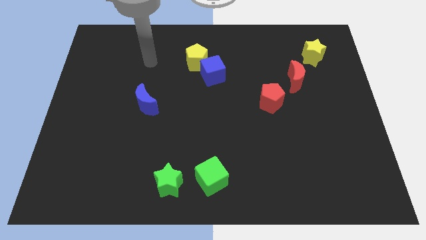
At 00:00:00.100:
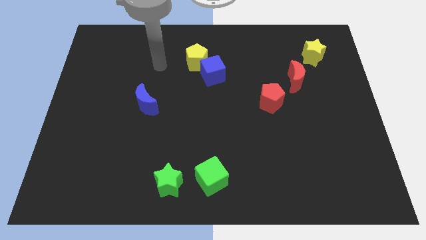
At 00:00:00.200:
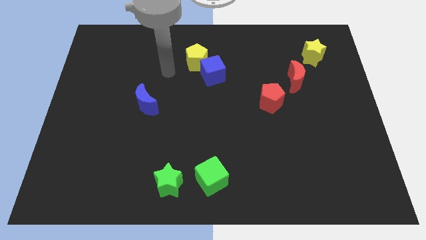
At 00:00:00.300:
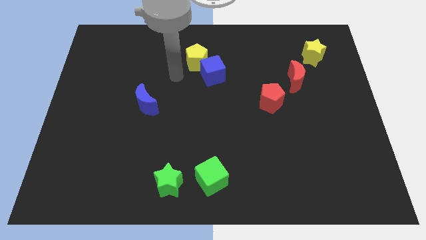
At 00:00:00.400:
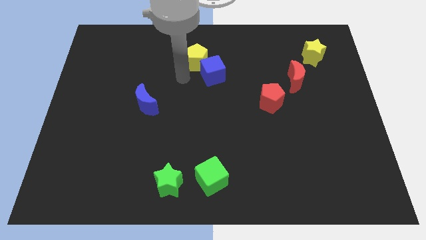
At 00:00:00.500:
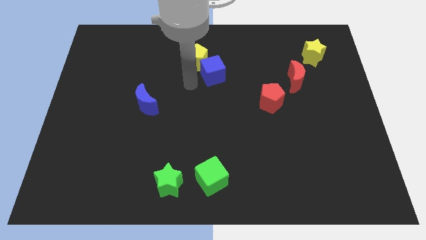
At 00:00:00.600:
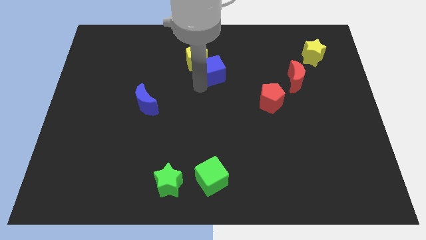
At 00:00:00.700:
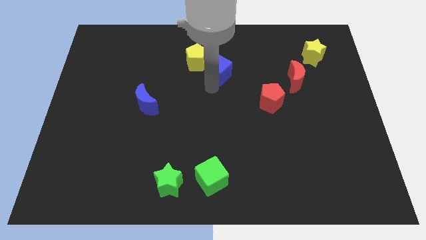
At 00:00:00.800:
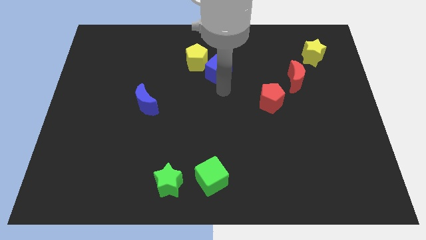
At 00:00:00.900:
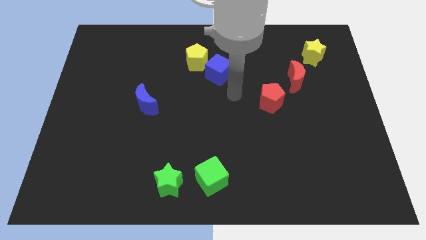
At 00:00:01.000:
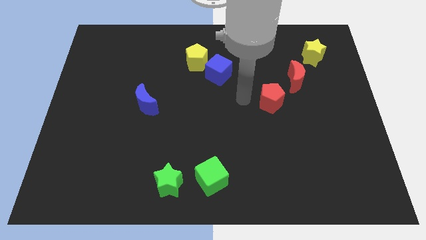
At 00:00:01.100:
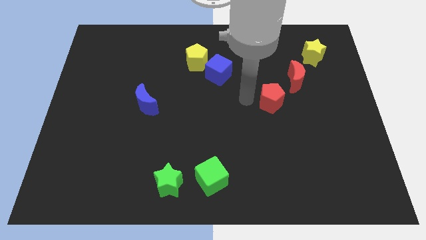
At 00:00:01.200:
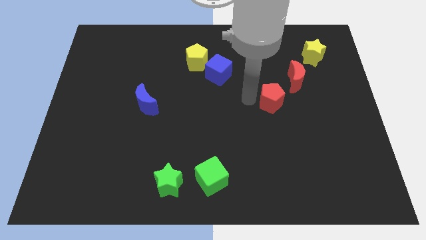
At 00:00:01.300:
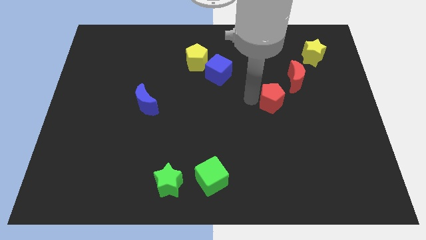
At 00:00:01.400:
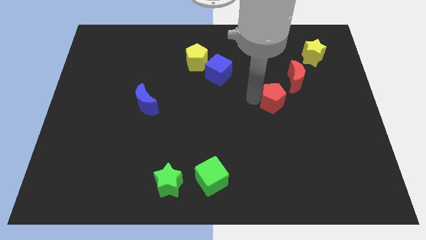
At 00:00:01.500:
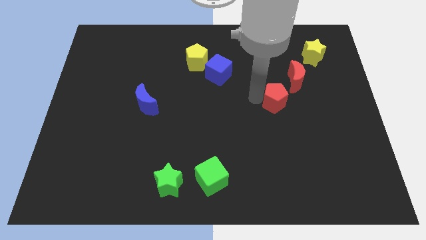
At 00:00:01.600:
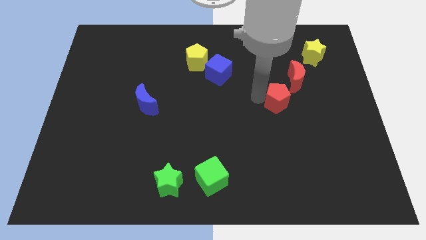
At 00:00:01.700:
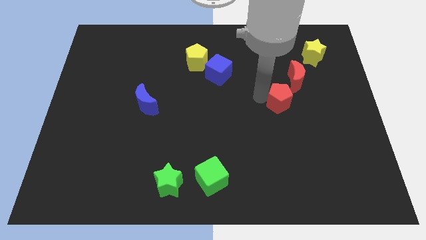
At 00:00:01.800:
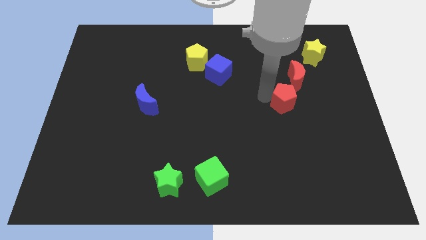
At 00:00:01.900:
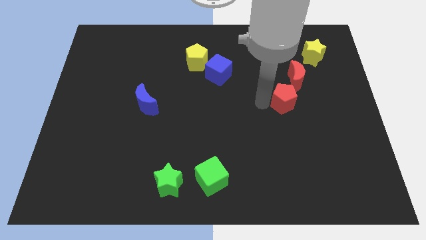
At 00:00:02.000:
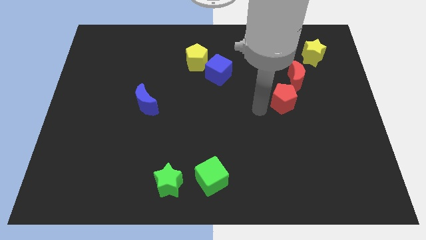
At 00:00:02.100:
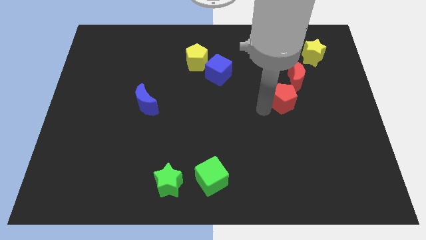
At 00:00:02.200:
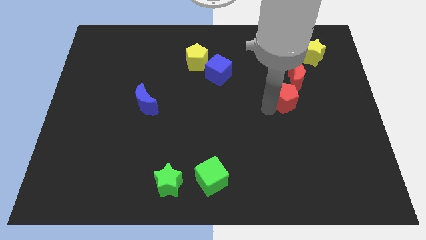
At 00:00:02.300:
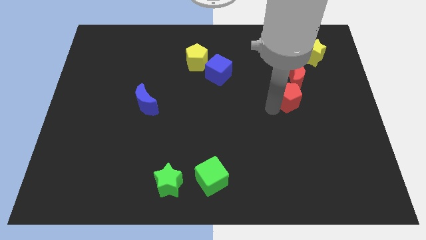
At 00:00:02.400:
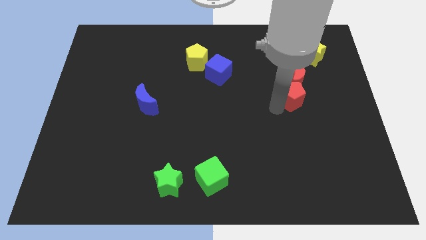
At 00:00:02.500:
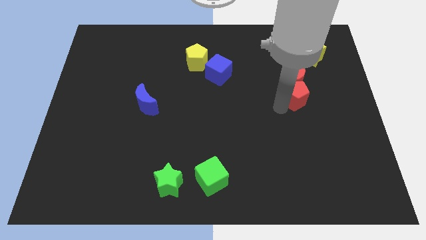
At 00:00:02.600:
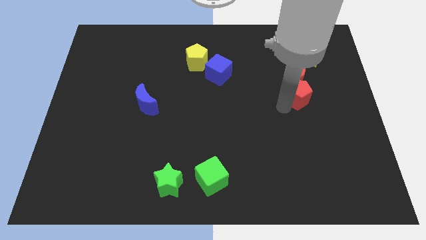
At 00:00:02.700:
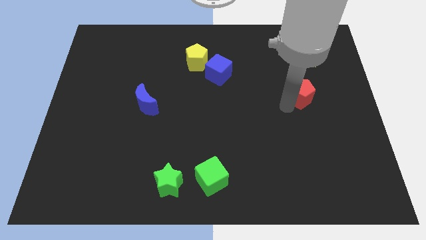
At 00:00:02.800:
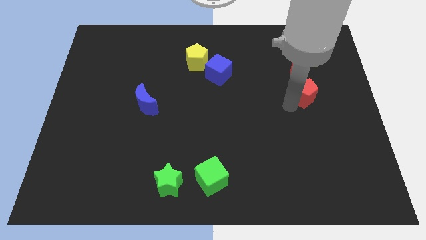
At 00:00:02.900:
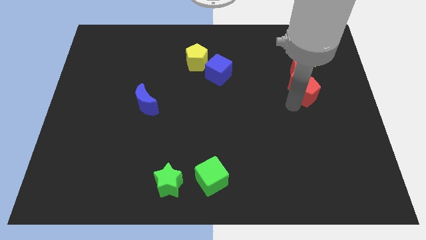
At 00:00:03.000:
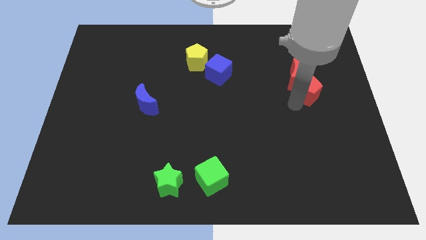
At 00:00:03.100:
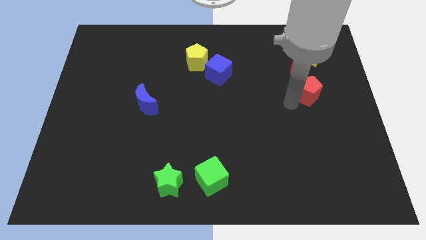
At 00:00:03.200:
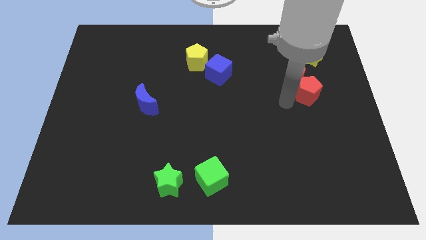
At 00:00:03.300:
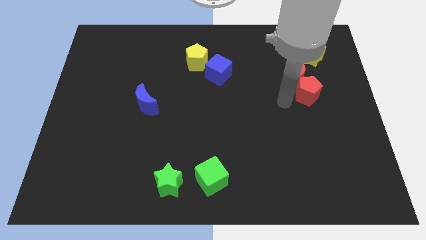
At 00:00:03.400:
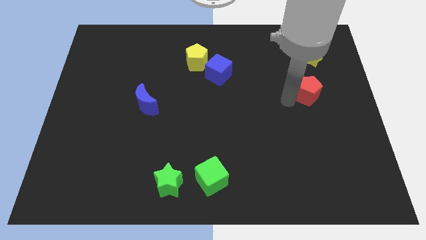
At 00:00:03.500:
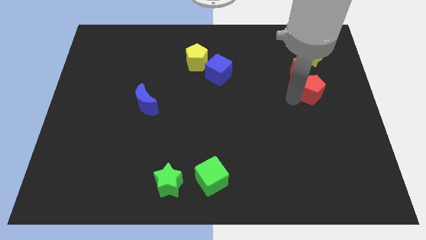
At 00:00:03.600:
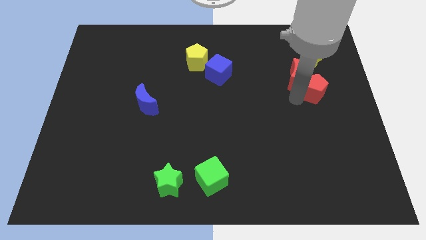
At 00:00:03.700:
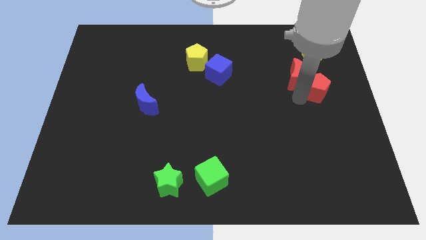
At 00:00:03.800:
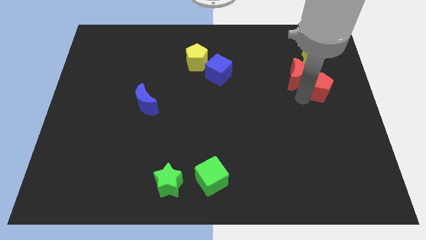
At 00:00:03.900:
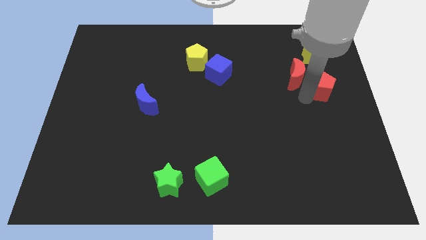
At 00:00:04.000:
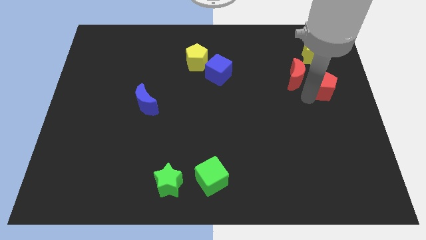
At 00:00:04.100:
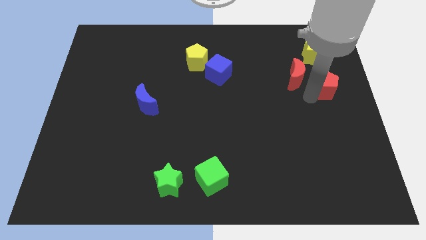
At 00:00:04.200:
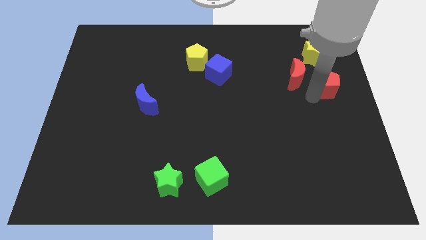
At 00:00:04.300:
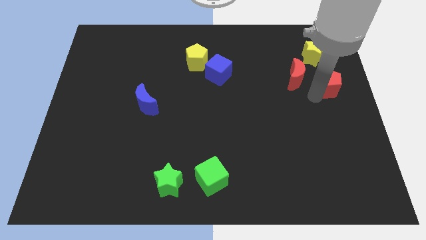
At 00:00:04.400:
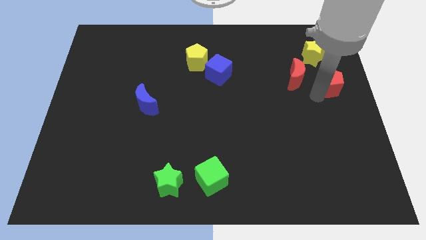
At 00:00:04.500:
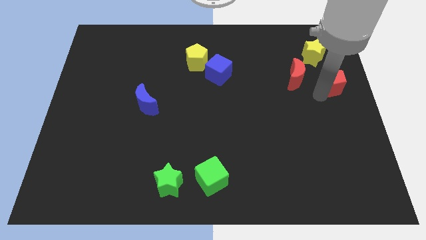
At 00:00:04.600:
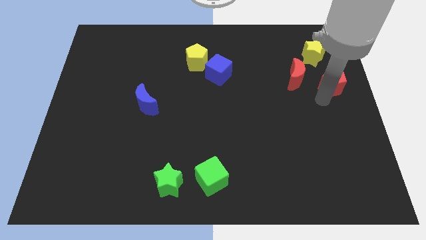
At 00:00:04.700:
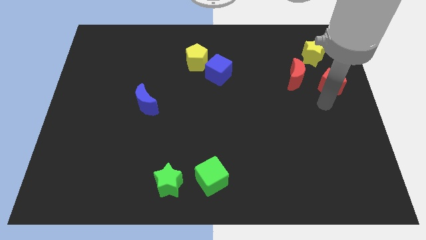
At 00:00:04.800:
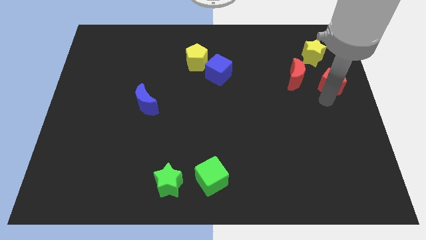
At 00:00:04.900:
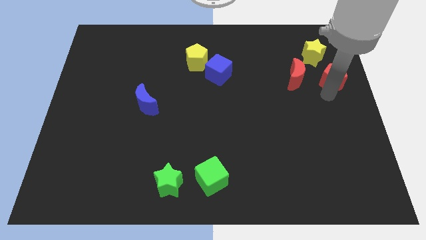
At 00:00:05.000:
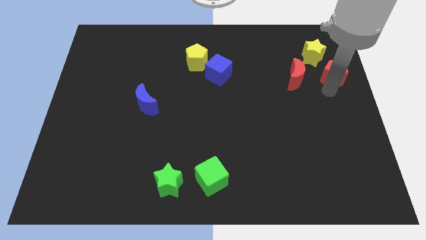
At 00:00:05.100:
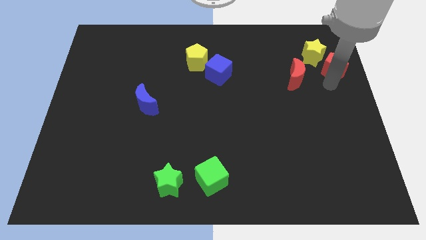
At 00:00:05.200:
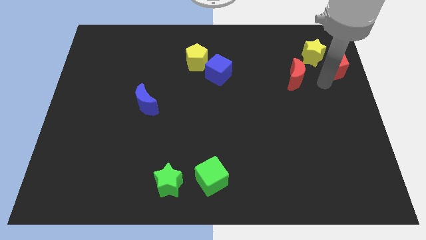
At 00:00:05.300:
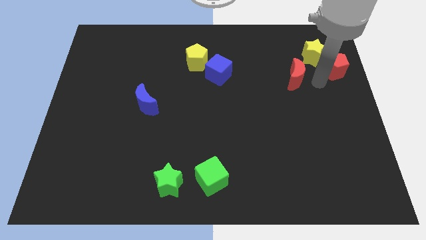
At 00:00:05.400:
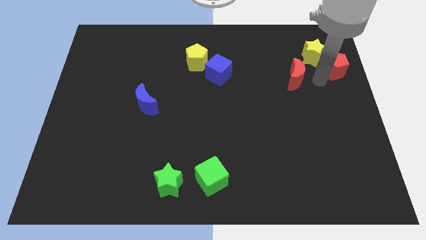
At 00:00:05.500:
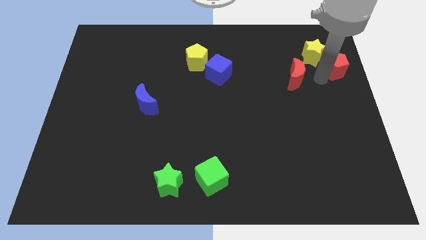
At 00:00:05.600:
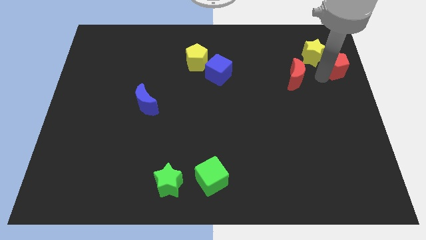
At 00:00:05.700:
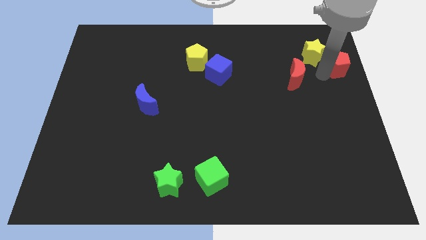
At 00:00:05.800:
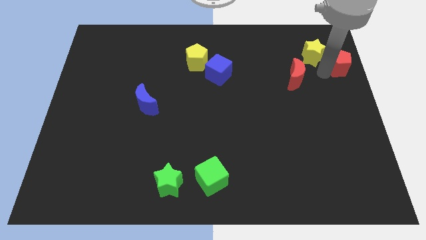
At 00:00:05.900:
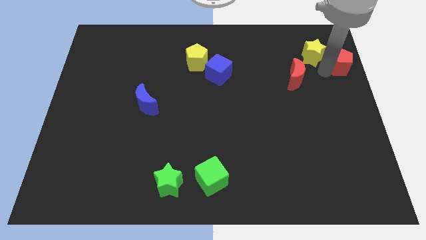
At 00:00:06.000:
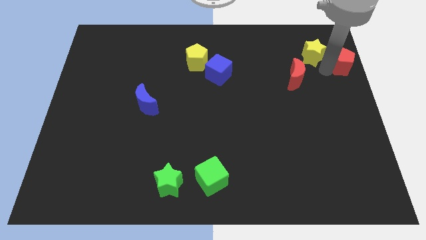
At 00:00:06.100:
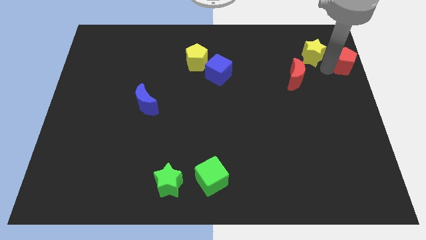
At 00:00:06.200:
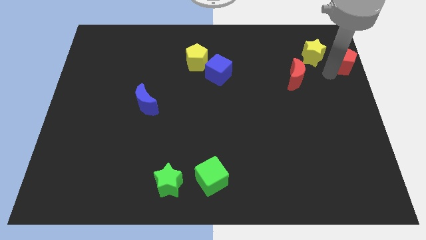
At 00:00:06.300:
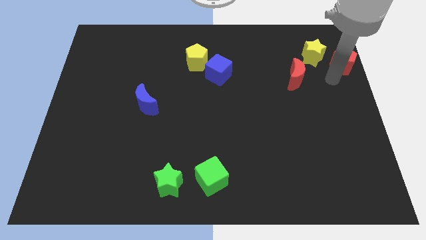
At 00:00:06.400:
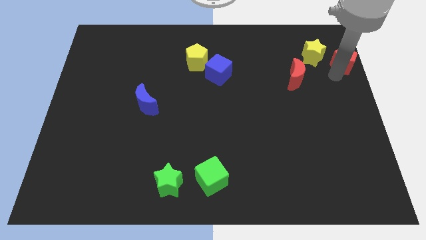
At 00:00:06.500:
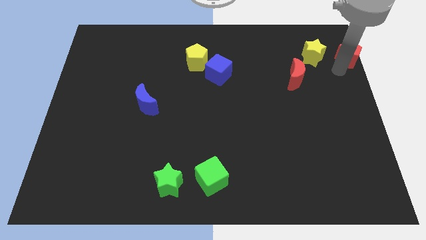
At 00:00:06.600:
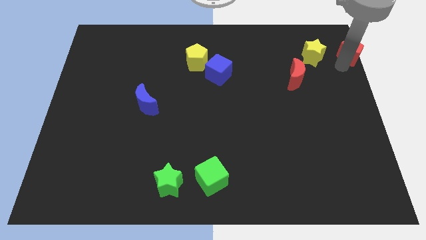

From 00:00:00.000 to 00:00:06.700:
move the red pentagon to the top right of the board
